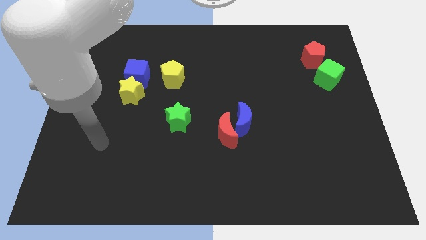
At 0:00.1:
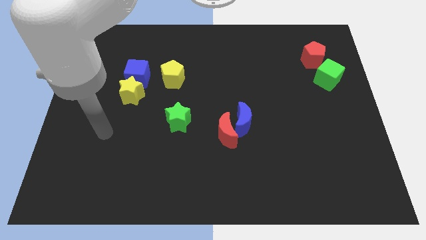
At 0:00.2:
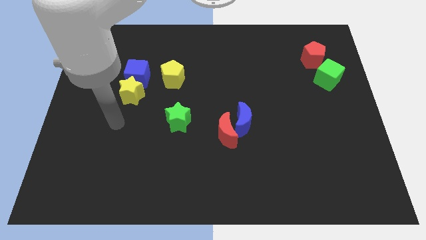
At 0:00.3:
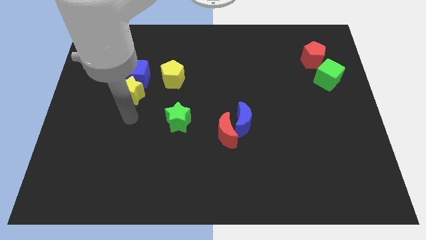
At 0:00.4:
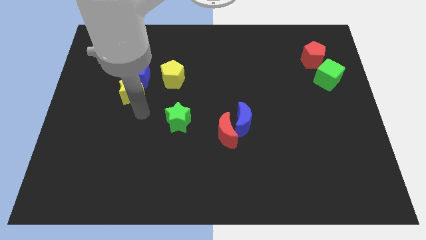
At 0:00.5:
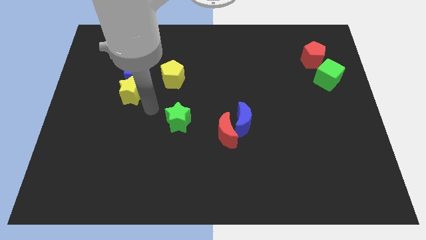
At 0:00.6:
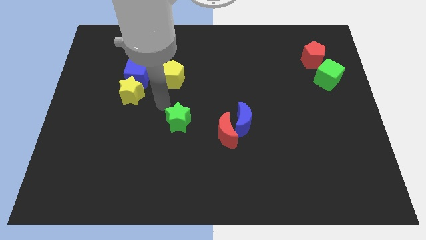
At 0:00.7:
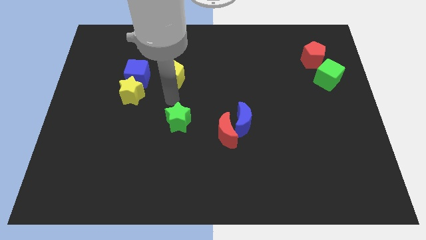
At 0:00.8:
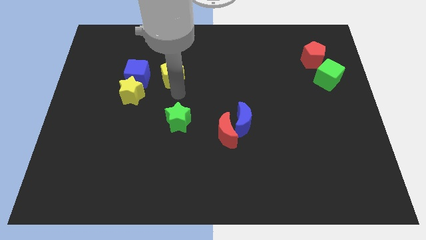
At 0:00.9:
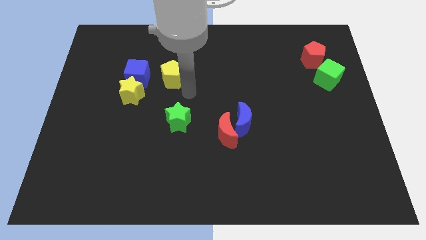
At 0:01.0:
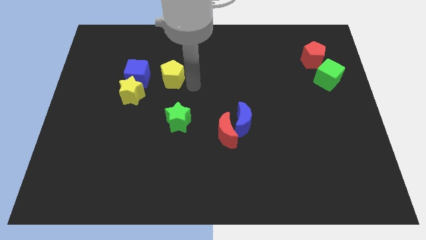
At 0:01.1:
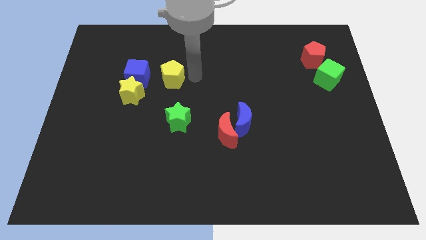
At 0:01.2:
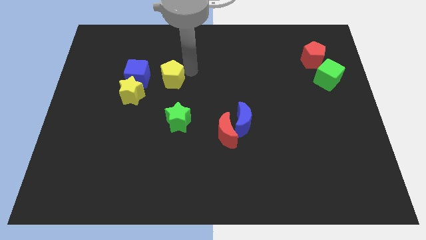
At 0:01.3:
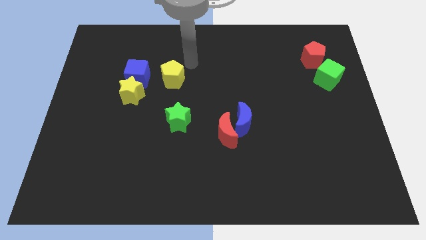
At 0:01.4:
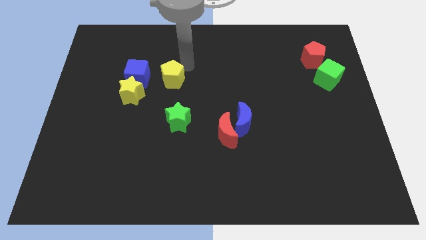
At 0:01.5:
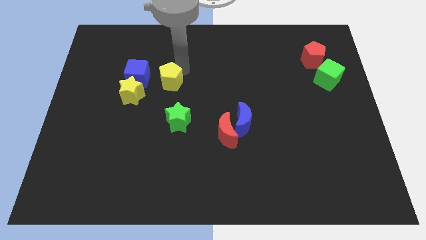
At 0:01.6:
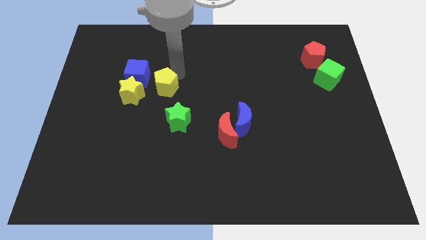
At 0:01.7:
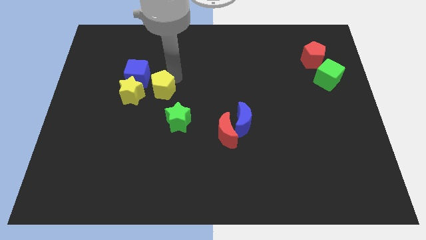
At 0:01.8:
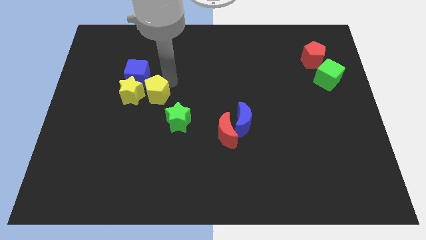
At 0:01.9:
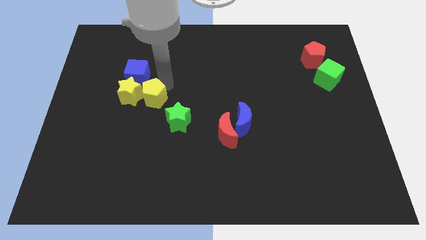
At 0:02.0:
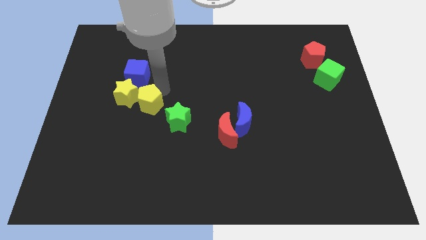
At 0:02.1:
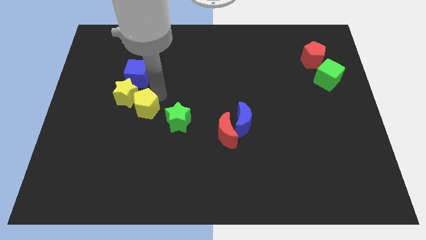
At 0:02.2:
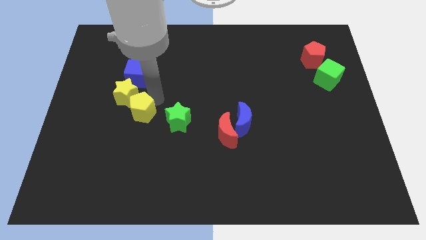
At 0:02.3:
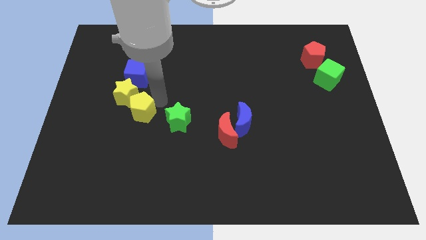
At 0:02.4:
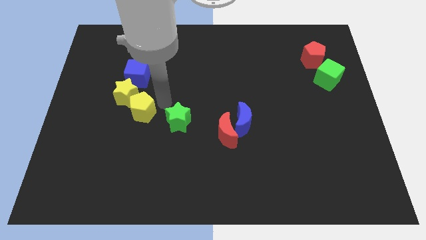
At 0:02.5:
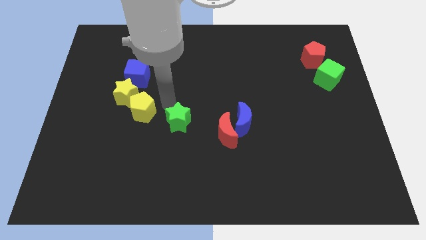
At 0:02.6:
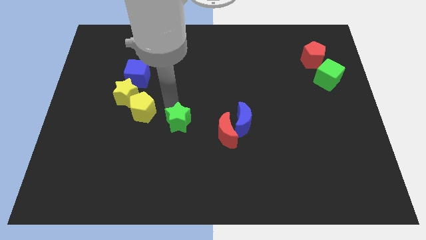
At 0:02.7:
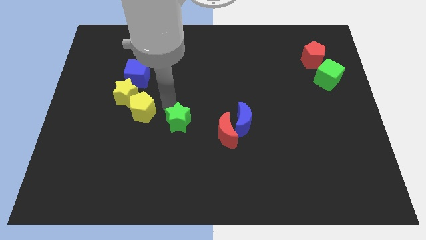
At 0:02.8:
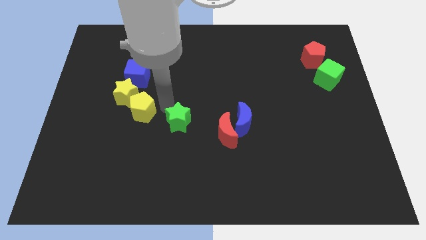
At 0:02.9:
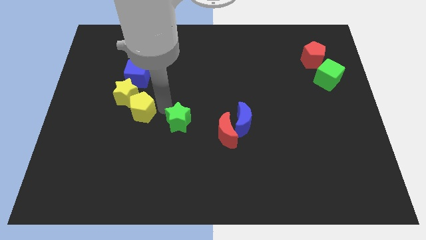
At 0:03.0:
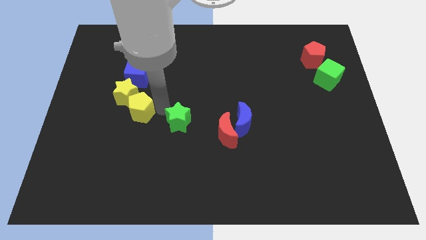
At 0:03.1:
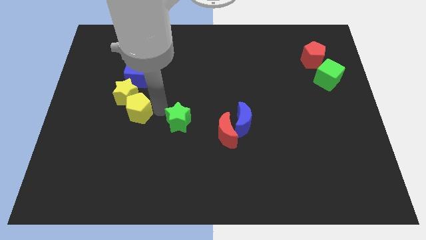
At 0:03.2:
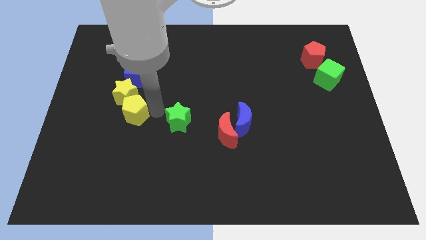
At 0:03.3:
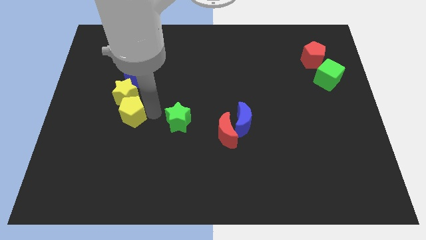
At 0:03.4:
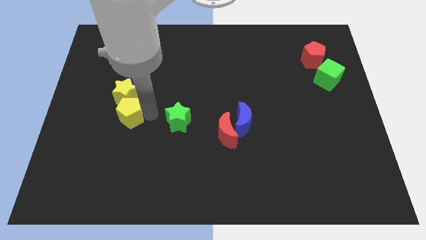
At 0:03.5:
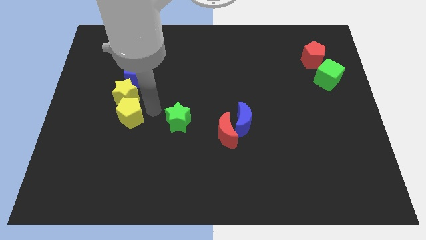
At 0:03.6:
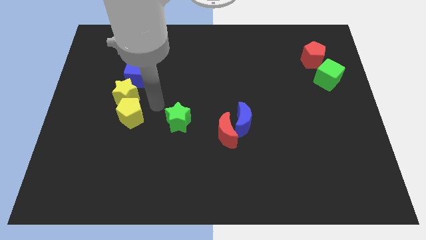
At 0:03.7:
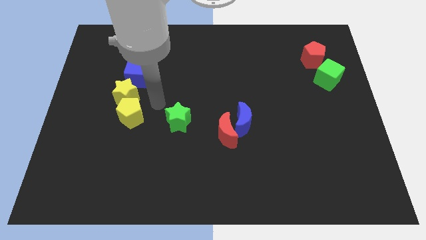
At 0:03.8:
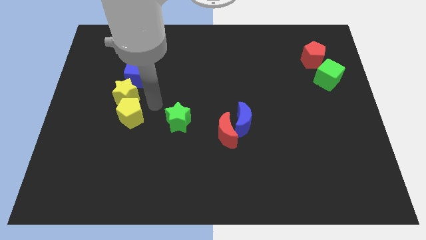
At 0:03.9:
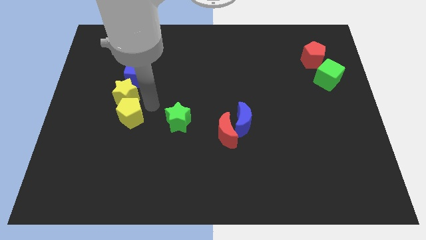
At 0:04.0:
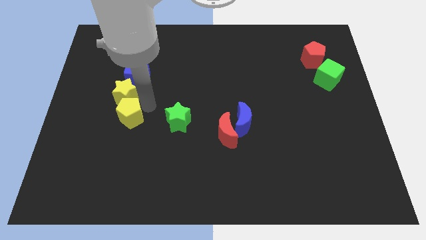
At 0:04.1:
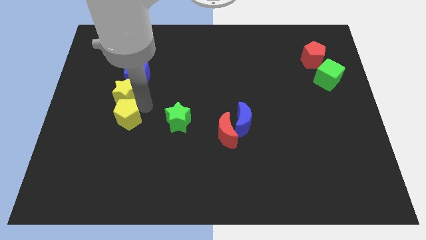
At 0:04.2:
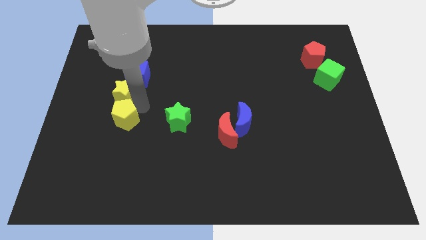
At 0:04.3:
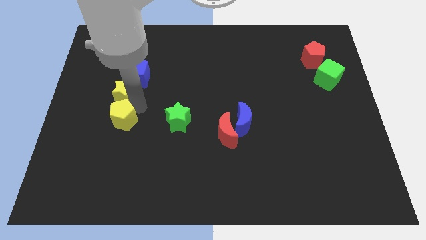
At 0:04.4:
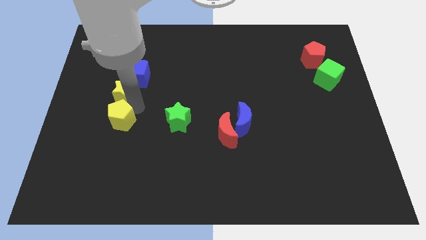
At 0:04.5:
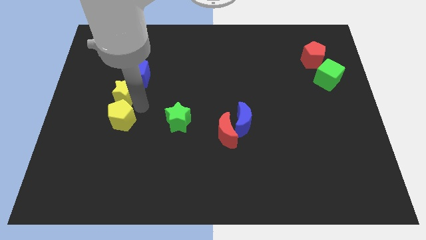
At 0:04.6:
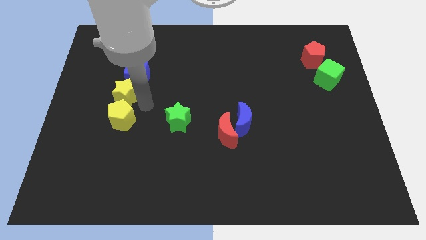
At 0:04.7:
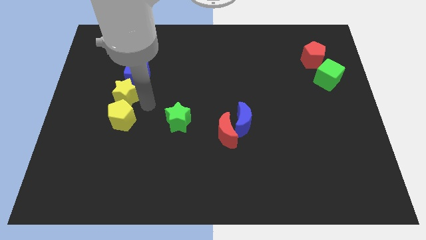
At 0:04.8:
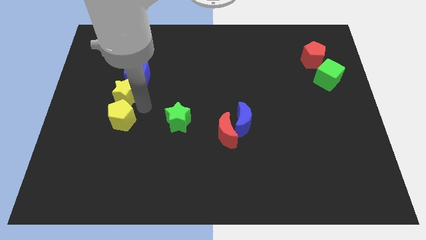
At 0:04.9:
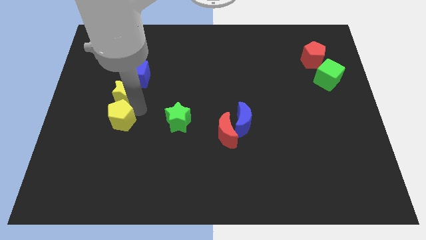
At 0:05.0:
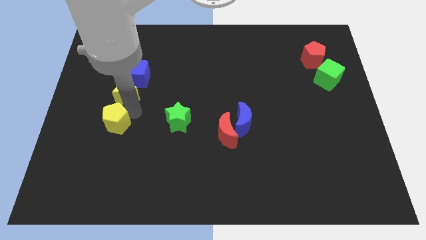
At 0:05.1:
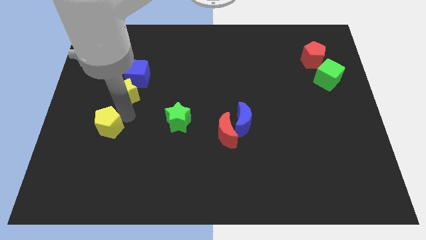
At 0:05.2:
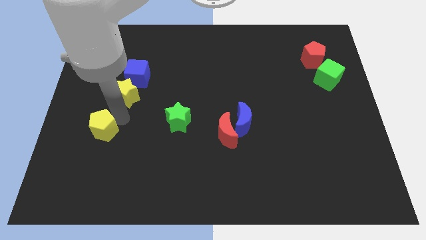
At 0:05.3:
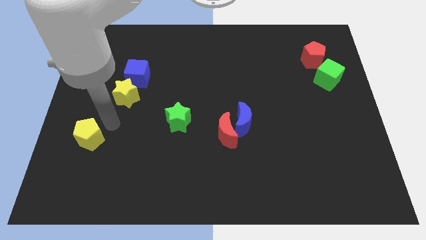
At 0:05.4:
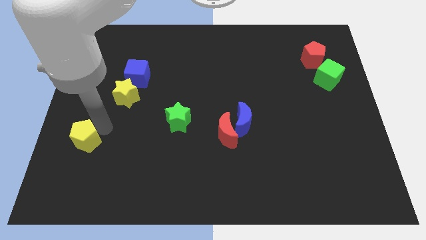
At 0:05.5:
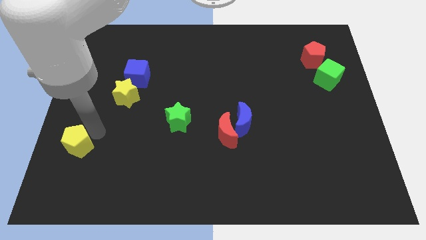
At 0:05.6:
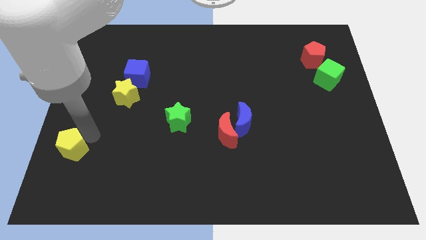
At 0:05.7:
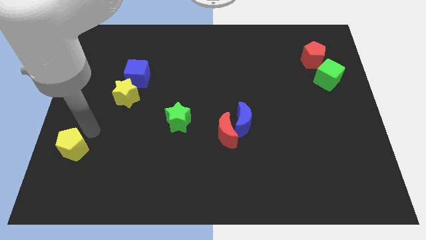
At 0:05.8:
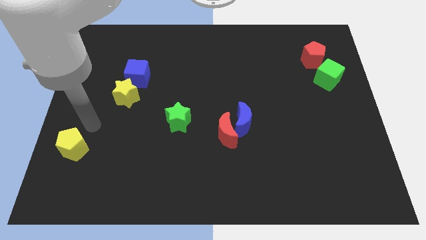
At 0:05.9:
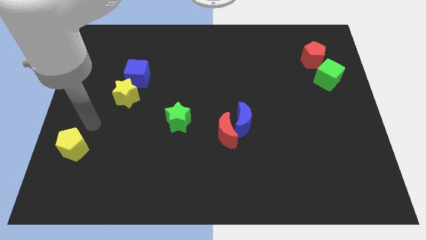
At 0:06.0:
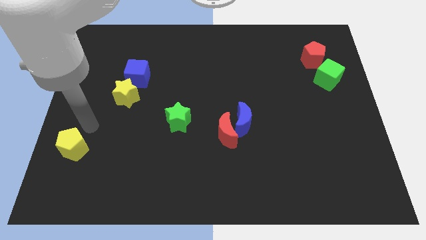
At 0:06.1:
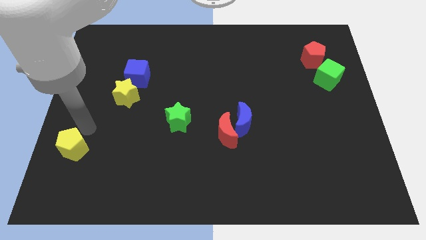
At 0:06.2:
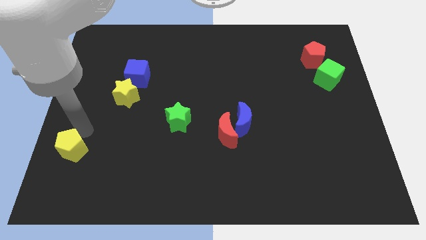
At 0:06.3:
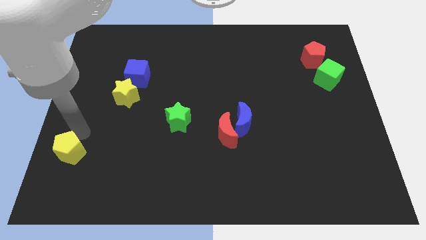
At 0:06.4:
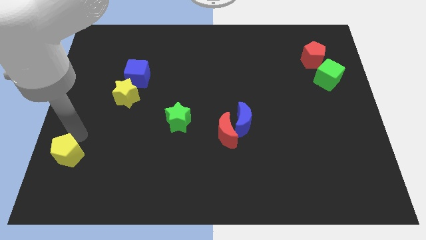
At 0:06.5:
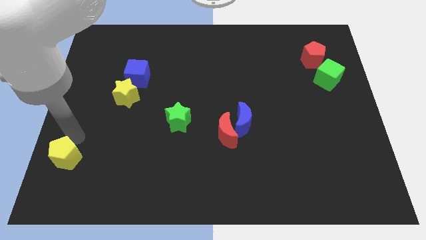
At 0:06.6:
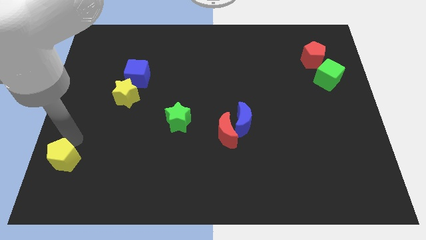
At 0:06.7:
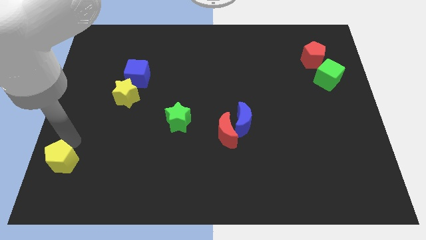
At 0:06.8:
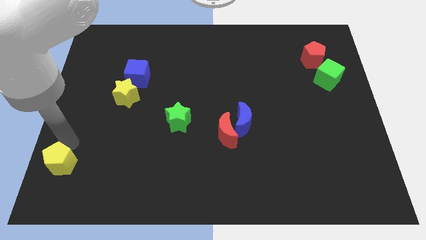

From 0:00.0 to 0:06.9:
slide the yellow pentagon to the bottom left of the board

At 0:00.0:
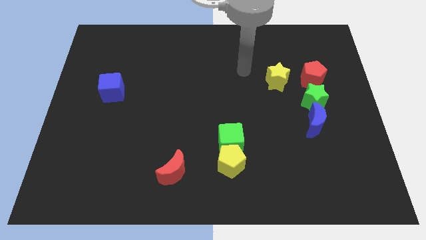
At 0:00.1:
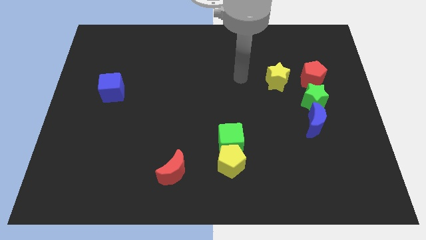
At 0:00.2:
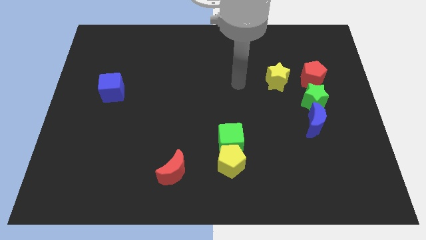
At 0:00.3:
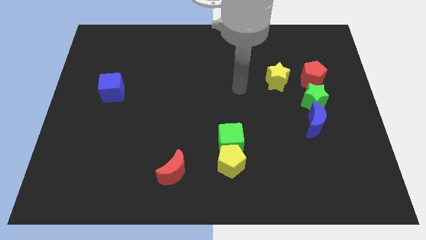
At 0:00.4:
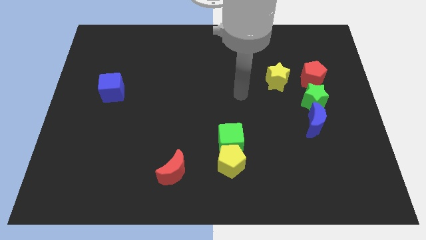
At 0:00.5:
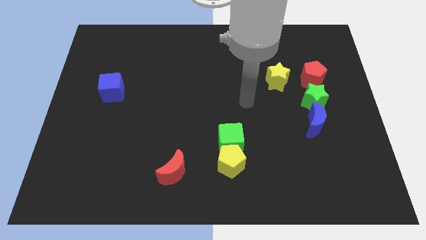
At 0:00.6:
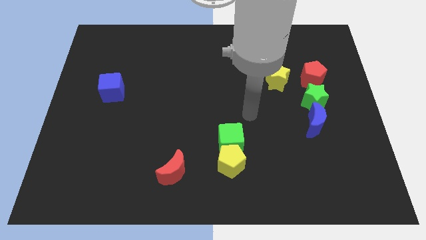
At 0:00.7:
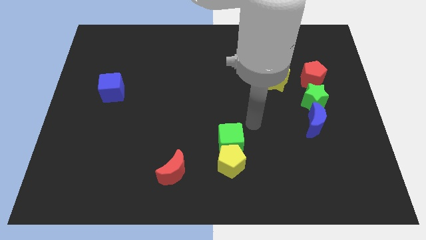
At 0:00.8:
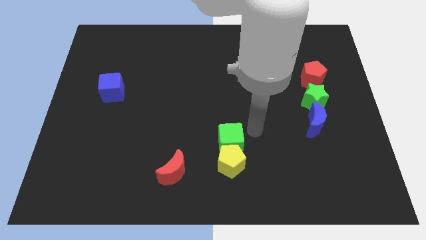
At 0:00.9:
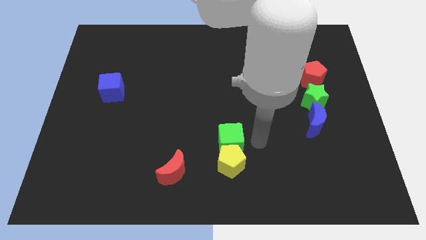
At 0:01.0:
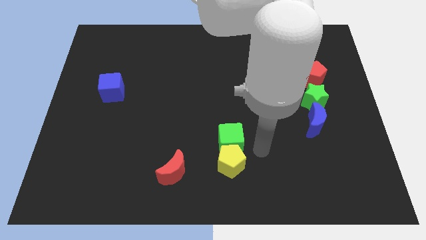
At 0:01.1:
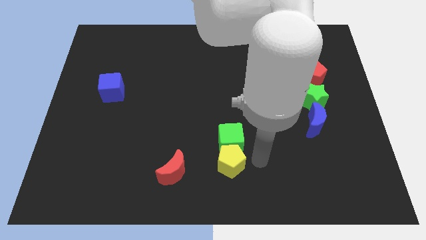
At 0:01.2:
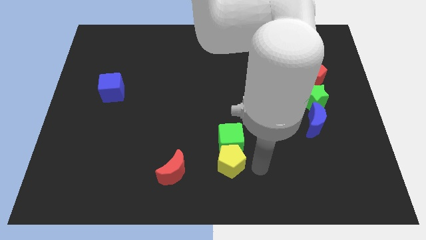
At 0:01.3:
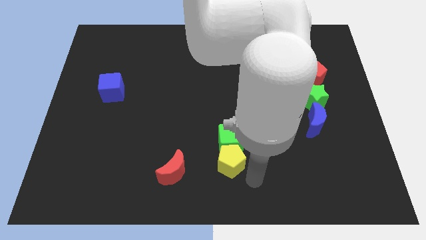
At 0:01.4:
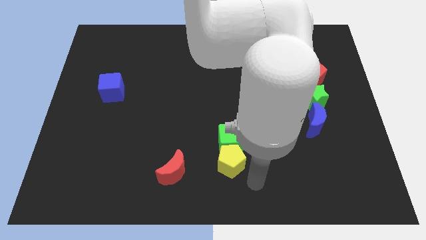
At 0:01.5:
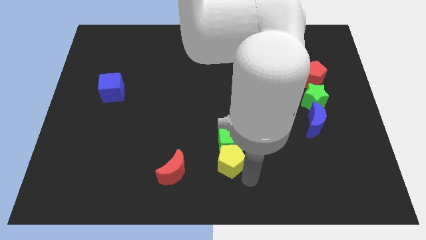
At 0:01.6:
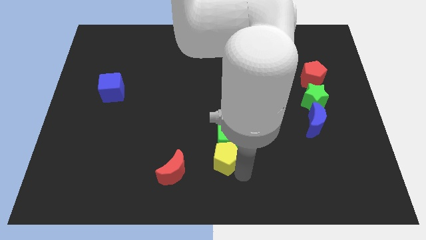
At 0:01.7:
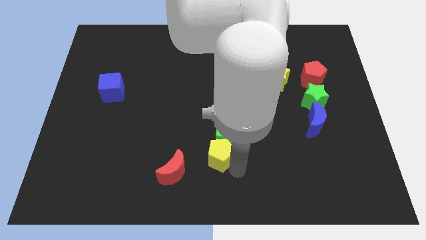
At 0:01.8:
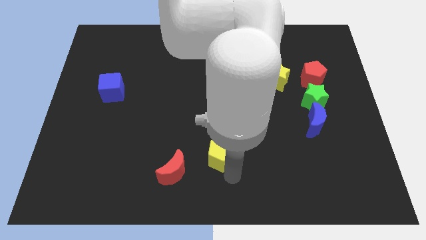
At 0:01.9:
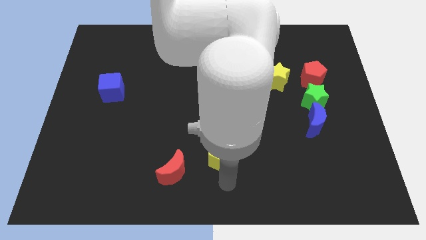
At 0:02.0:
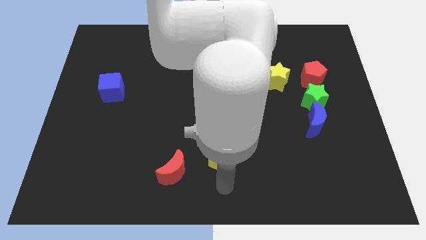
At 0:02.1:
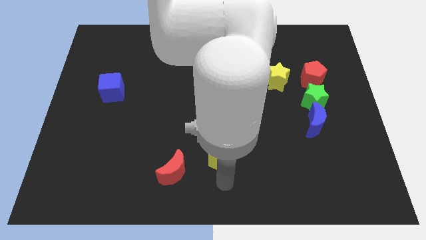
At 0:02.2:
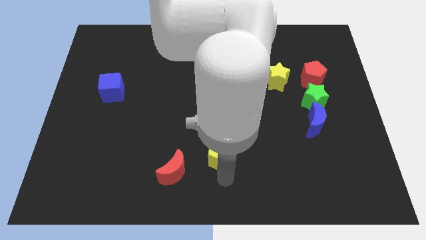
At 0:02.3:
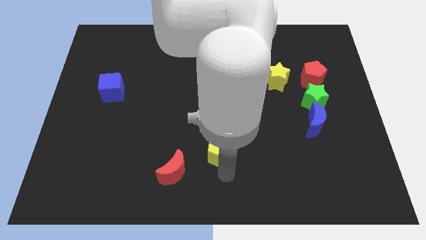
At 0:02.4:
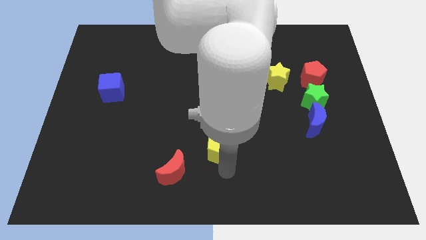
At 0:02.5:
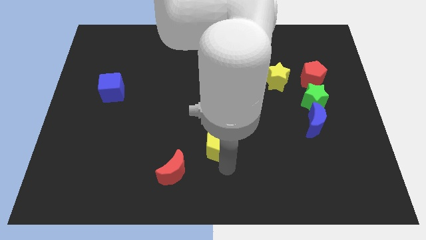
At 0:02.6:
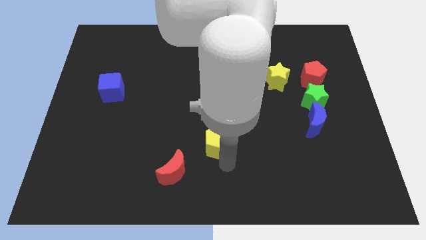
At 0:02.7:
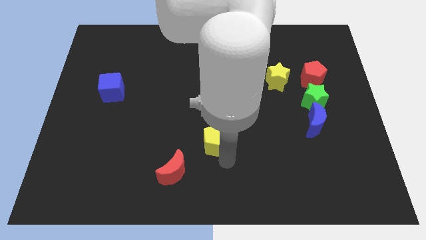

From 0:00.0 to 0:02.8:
put the yellow pentagon to the center of the board
